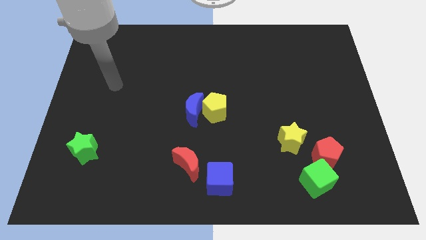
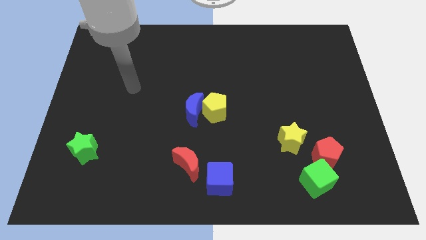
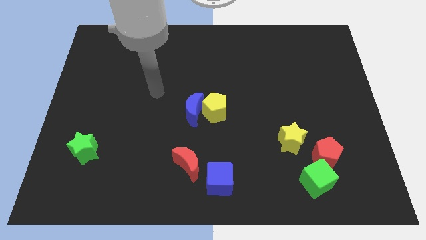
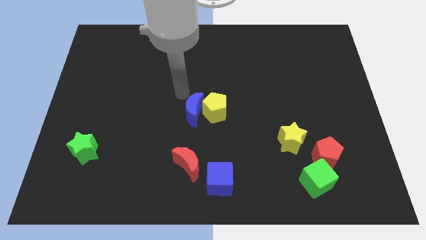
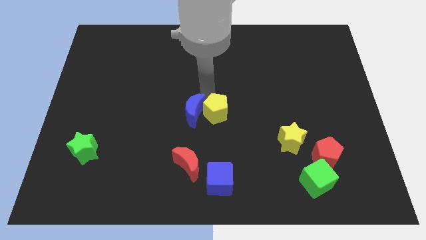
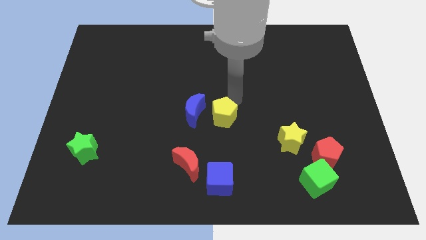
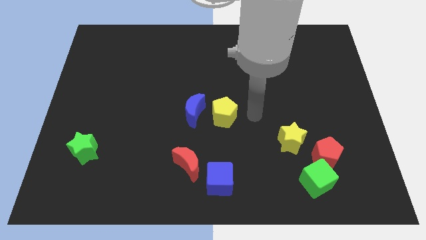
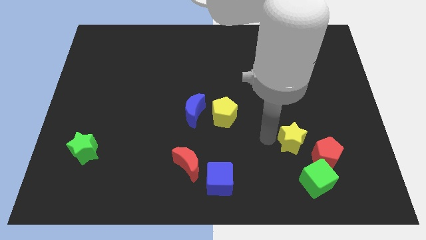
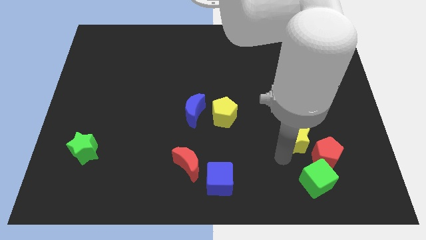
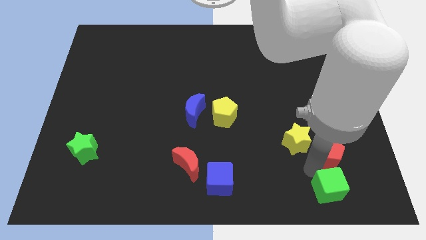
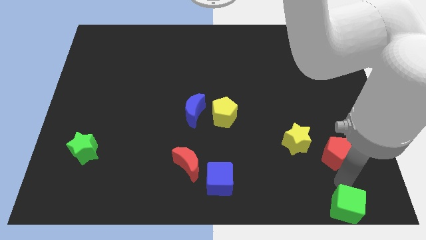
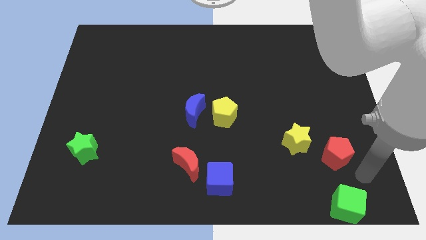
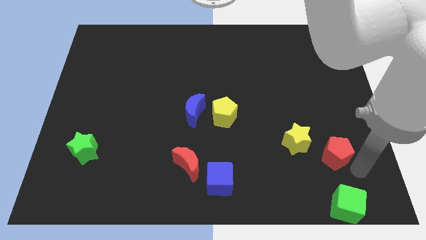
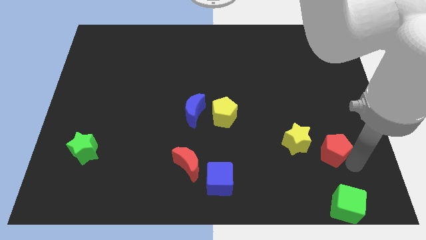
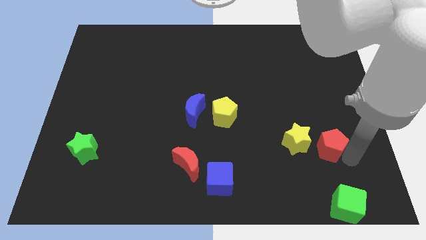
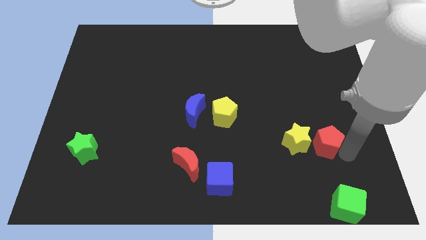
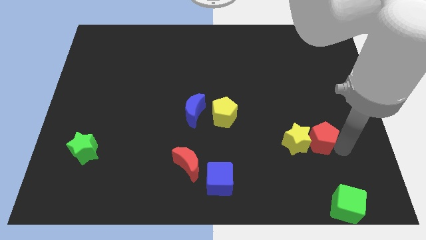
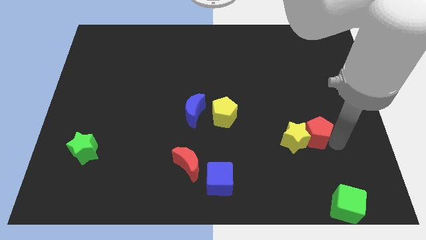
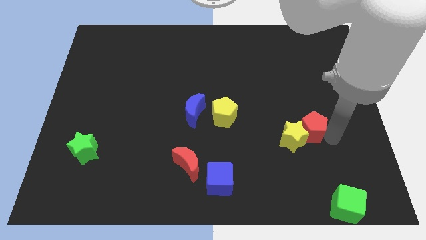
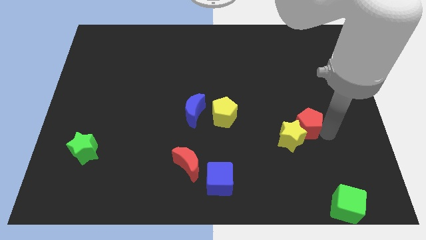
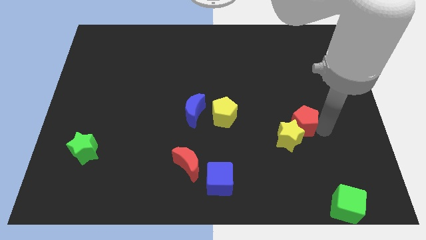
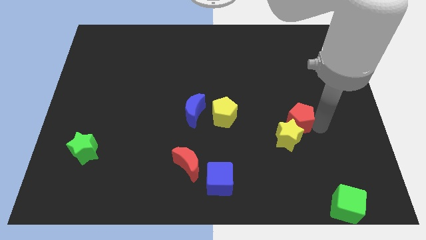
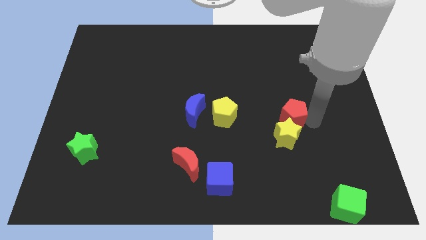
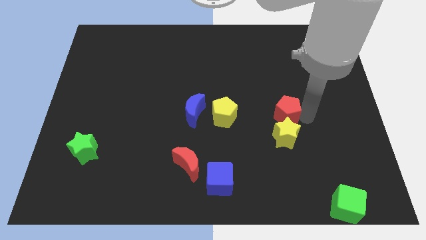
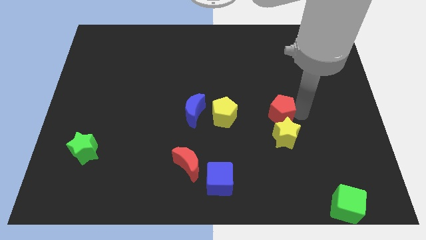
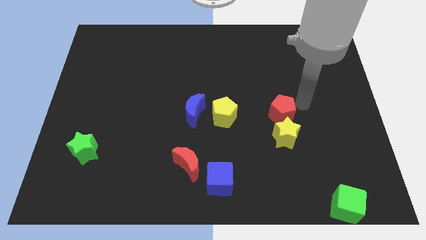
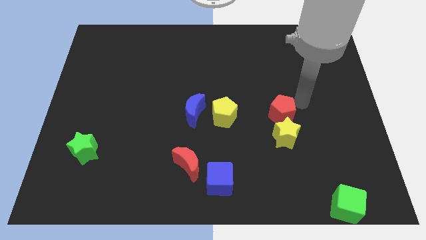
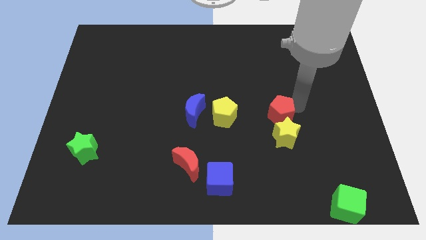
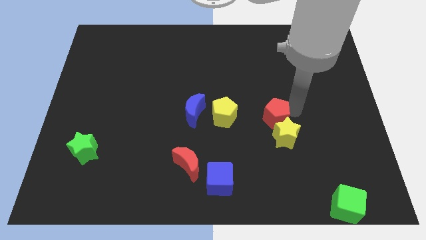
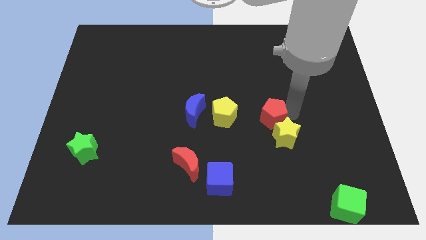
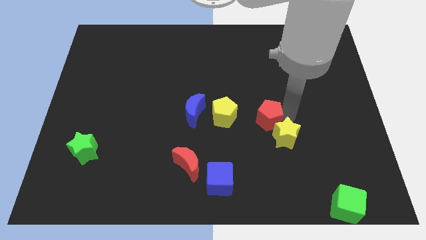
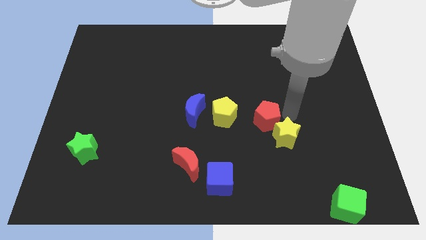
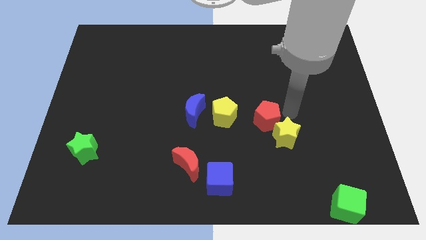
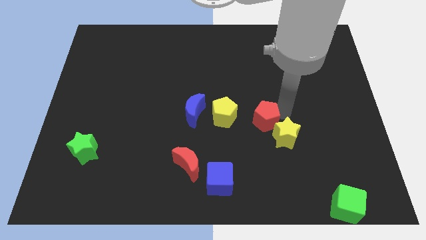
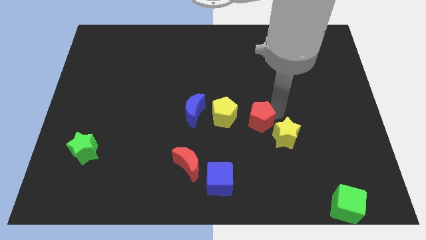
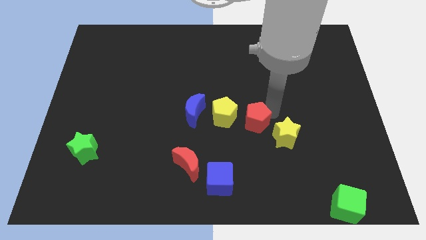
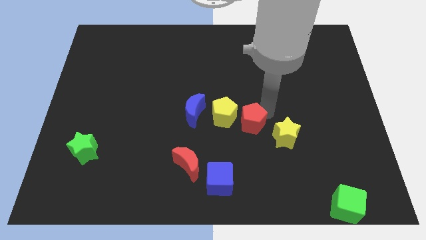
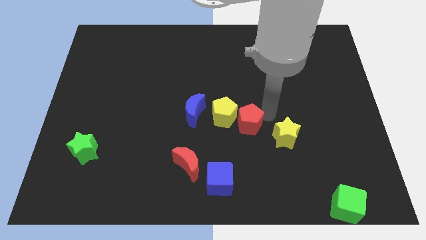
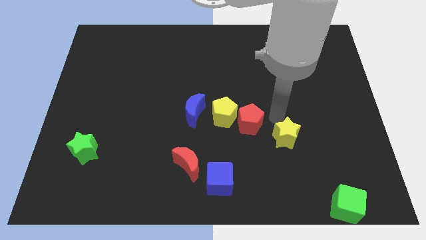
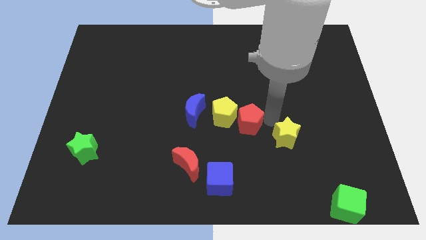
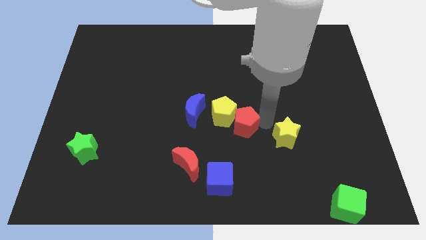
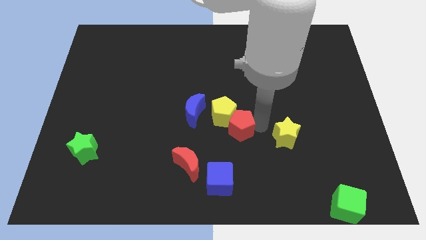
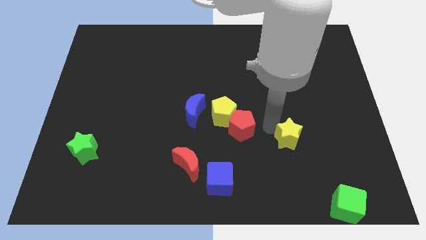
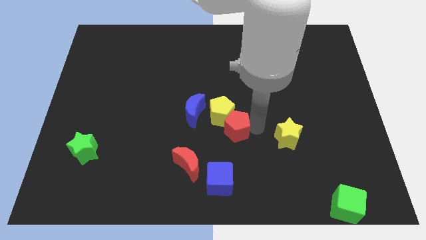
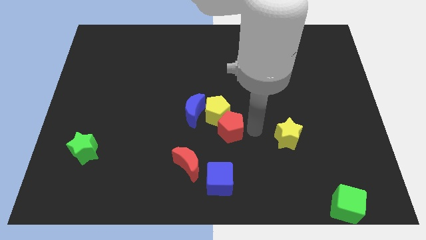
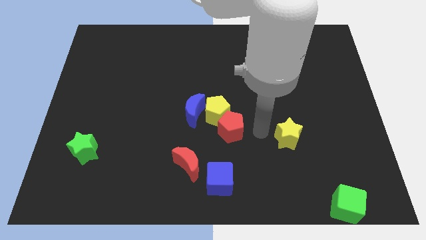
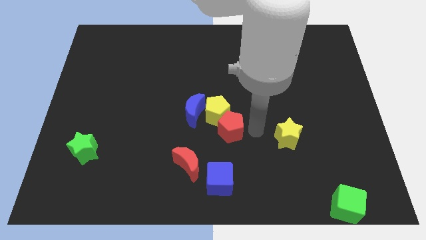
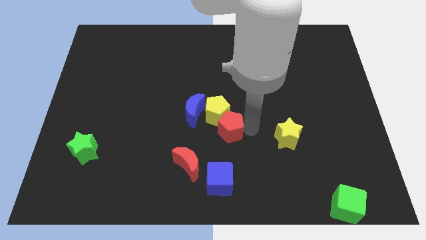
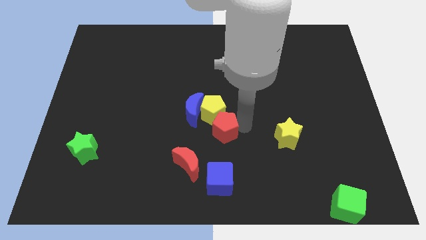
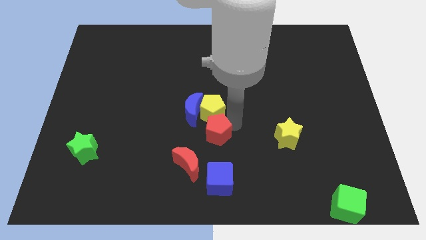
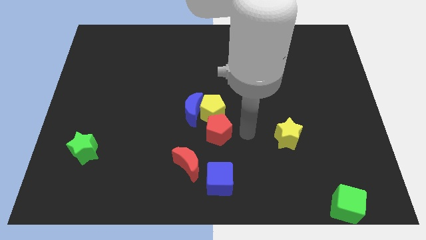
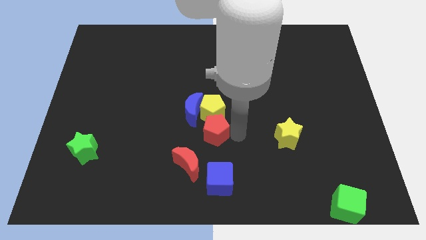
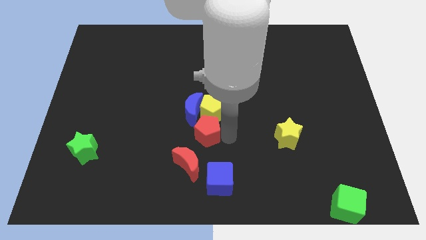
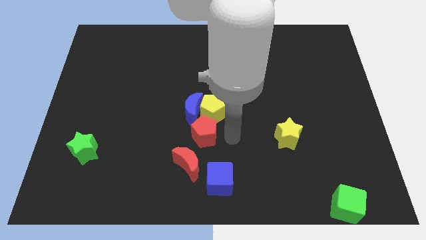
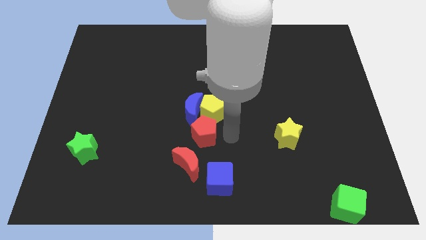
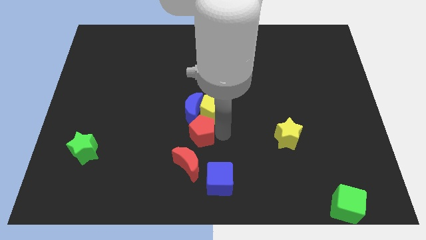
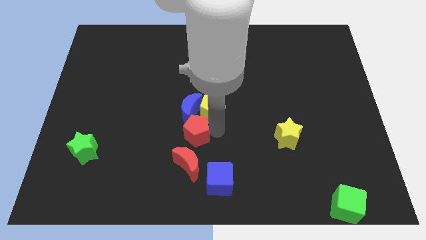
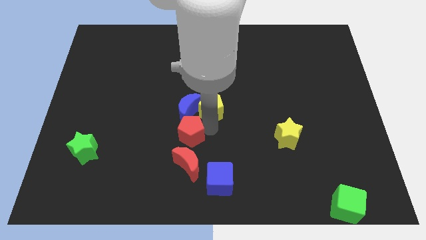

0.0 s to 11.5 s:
push the red pentagon to the bottom left of the blue moon

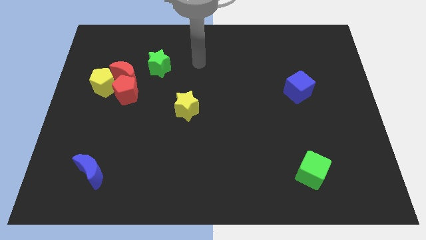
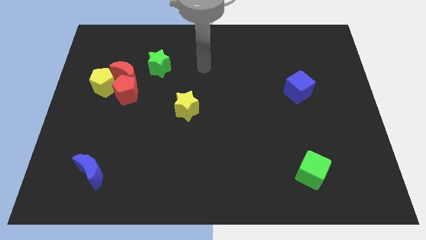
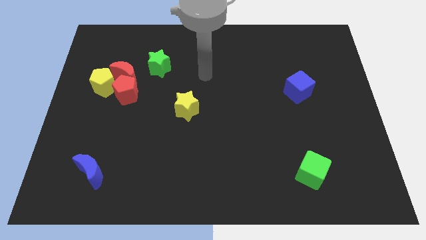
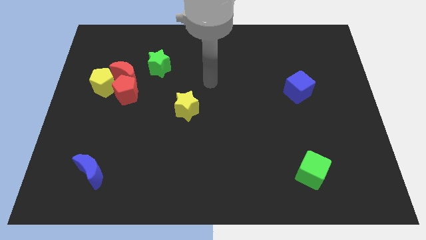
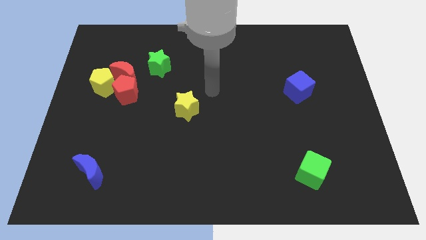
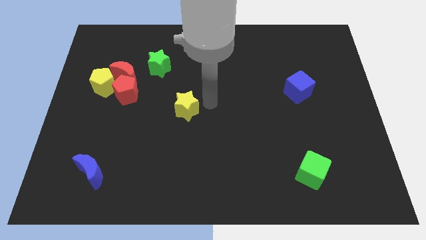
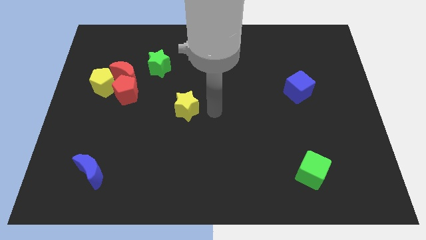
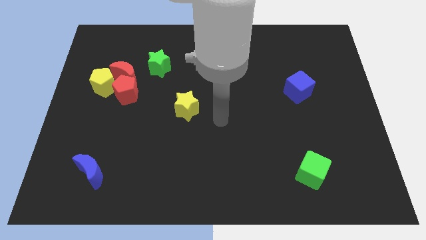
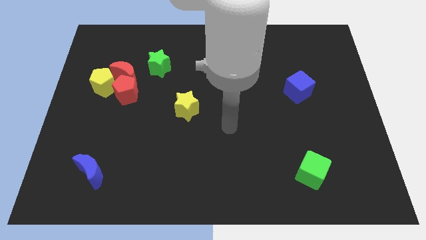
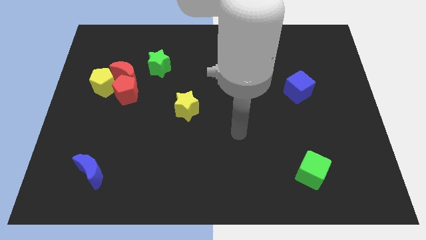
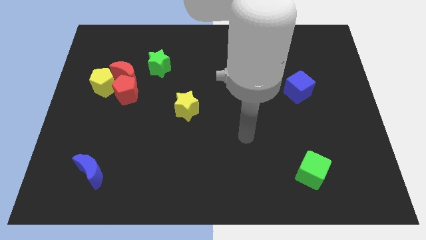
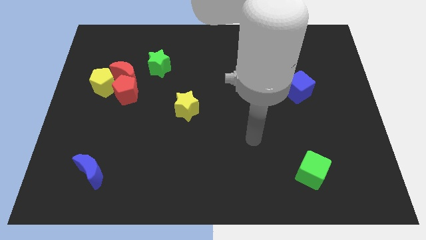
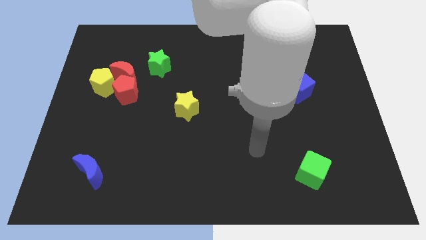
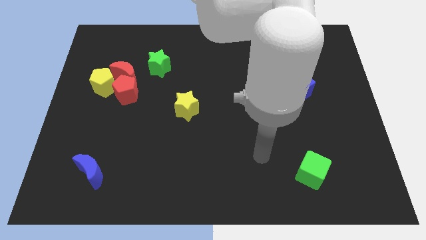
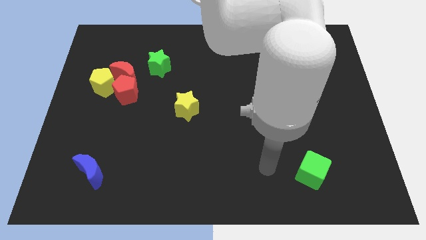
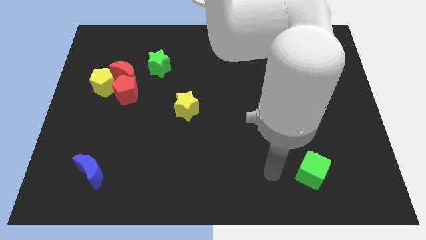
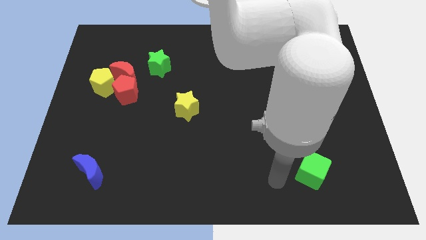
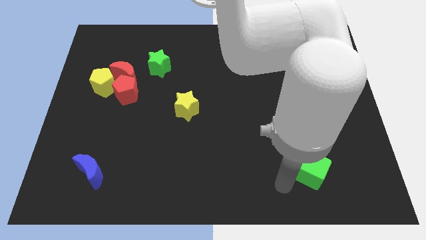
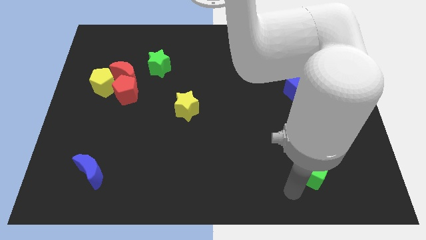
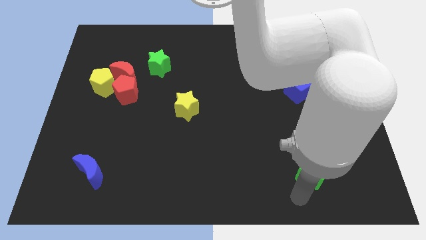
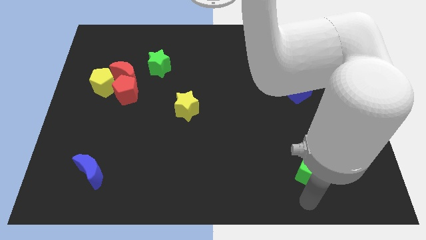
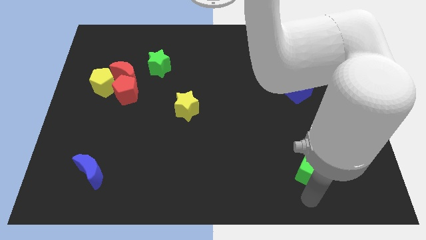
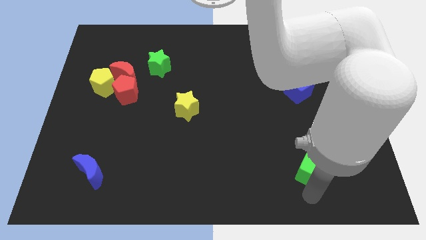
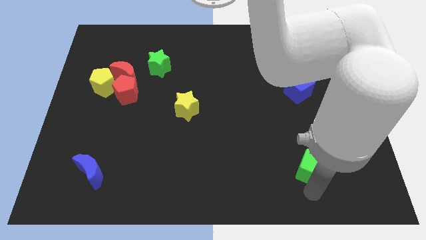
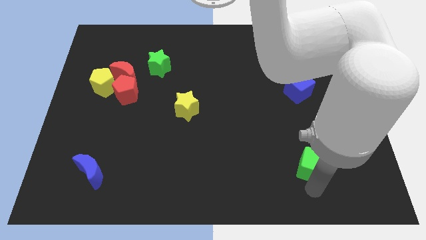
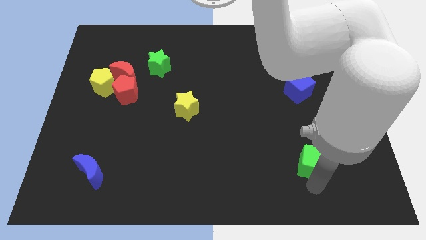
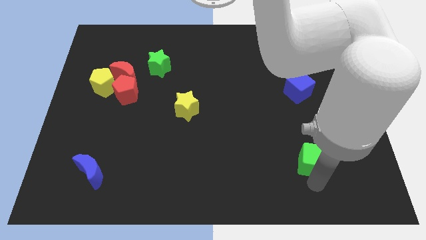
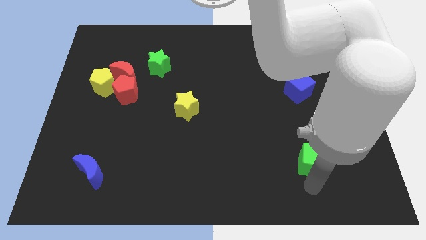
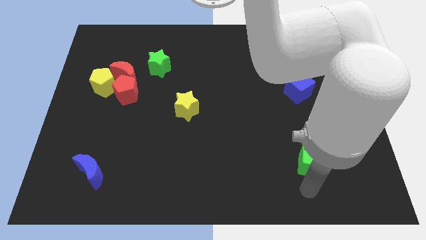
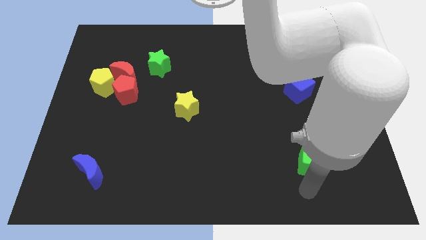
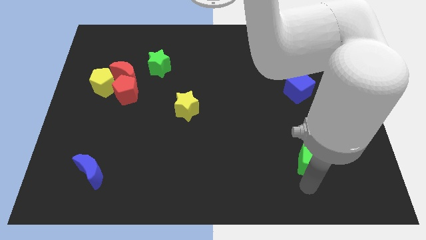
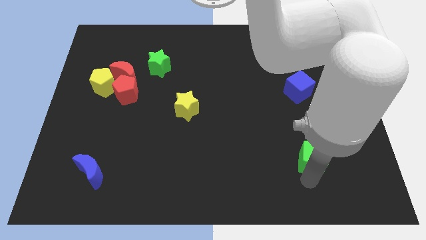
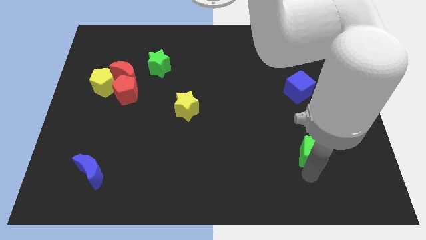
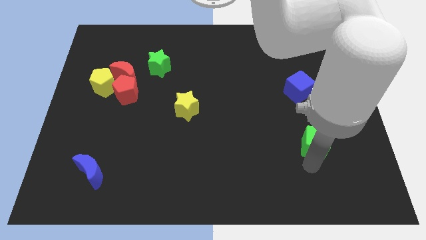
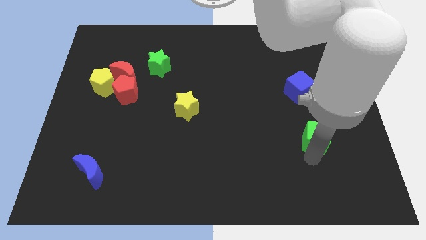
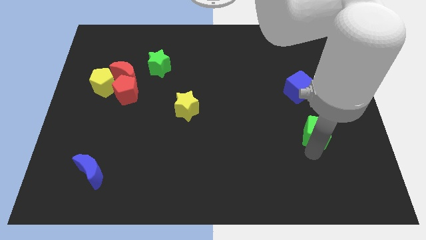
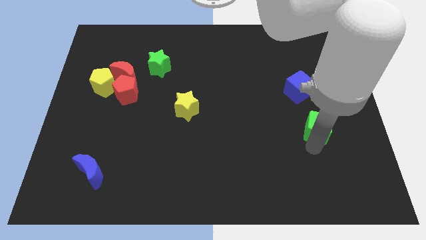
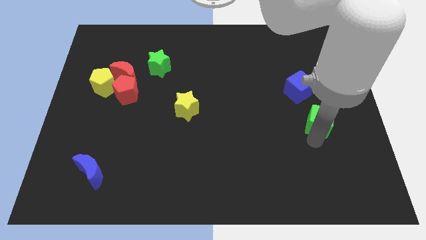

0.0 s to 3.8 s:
put the green cube to the bottom right side of the blue cube
